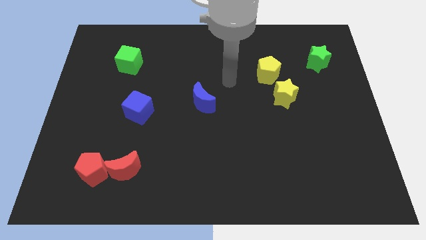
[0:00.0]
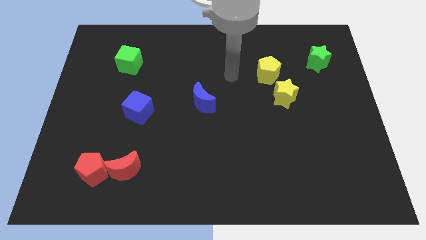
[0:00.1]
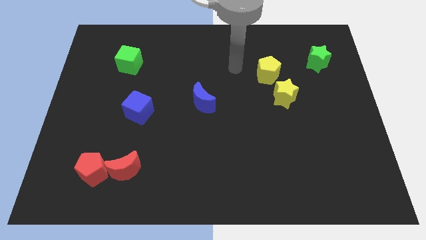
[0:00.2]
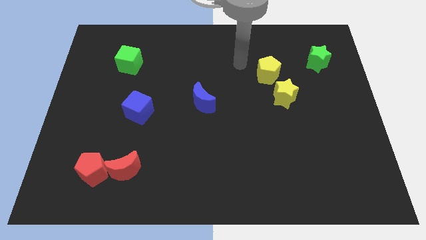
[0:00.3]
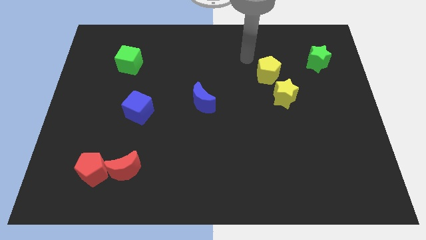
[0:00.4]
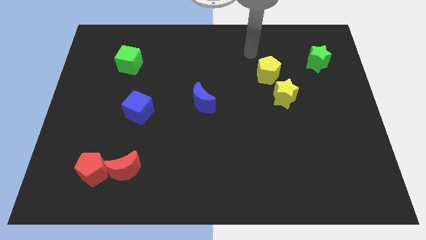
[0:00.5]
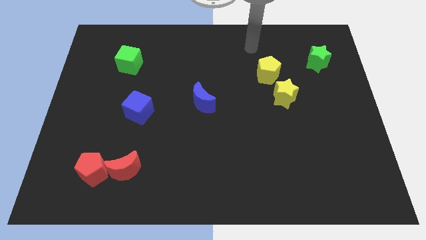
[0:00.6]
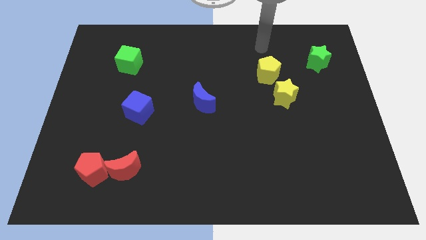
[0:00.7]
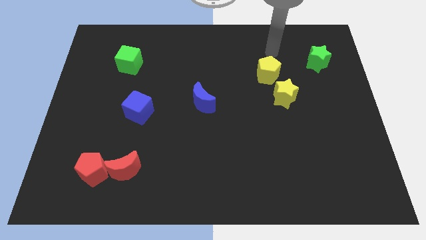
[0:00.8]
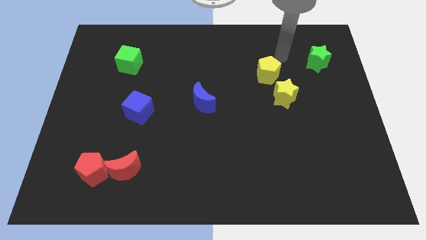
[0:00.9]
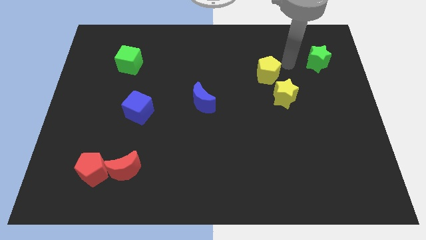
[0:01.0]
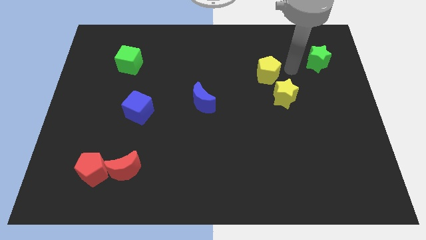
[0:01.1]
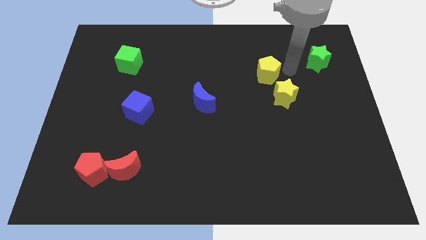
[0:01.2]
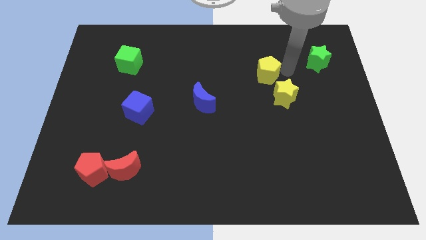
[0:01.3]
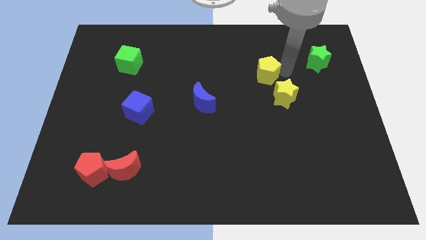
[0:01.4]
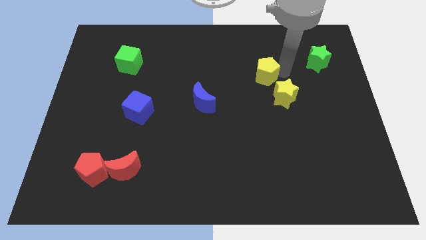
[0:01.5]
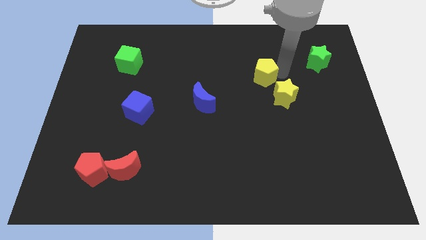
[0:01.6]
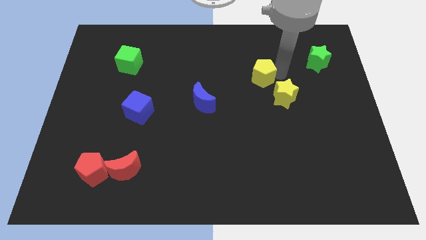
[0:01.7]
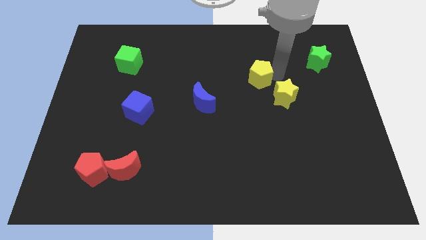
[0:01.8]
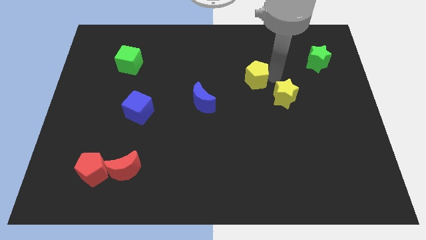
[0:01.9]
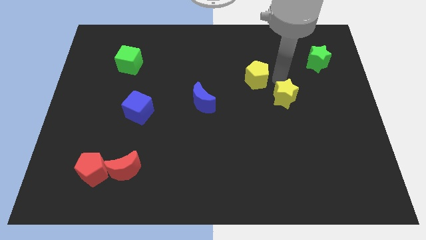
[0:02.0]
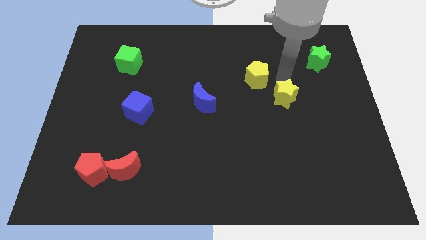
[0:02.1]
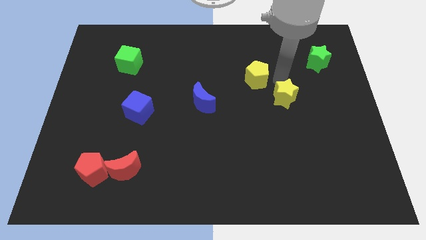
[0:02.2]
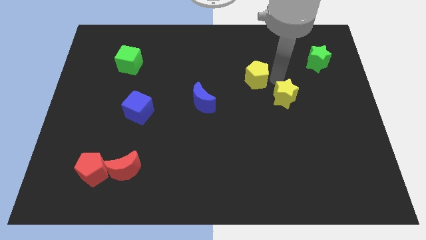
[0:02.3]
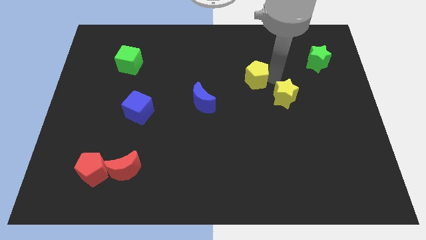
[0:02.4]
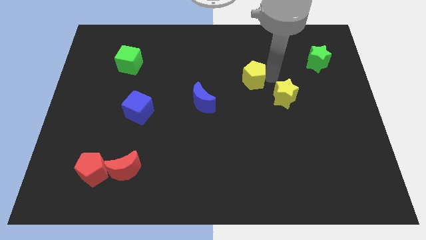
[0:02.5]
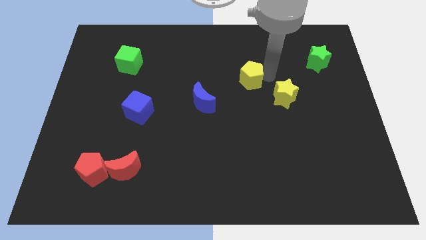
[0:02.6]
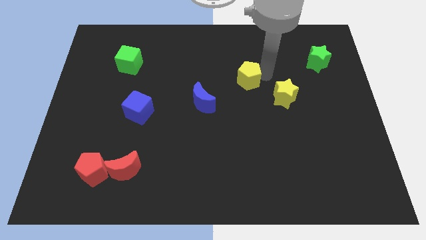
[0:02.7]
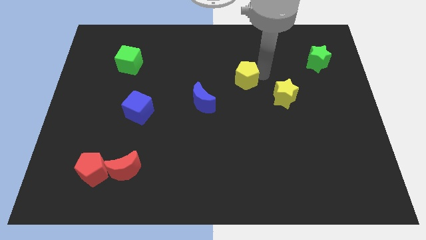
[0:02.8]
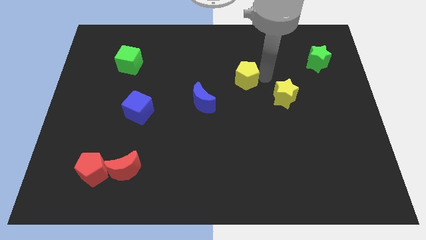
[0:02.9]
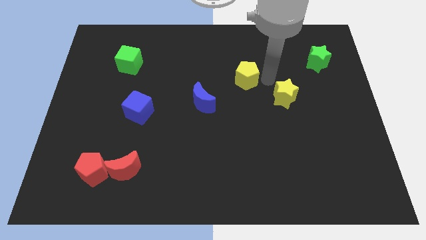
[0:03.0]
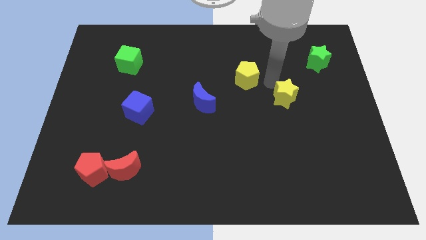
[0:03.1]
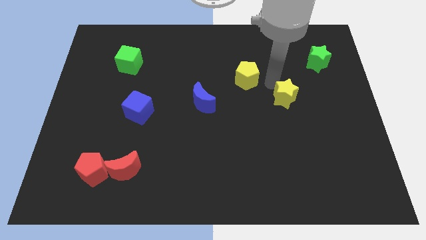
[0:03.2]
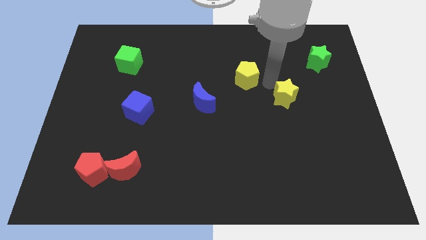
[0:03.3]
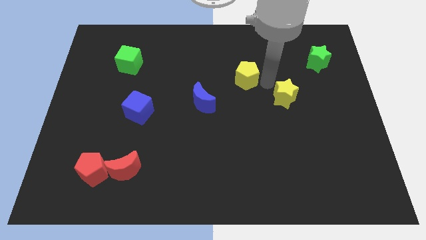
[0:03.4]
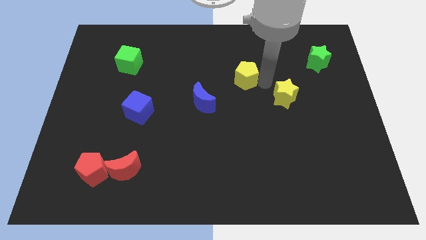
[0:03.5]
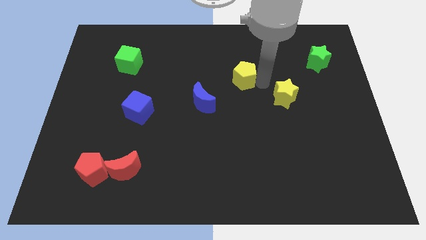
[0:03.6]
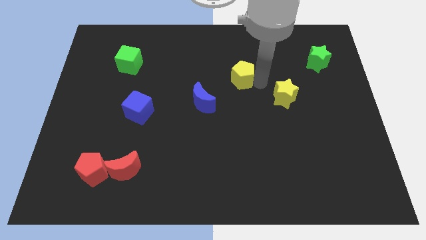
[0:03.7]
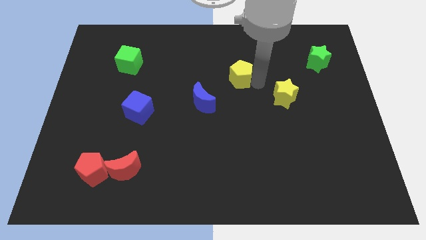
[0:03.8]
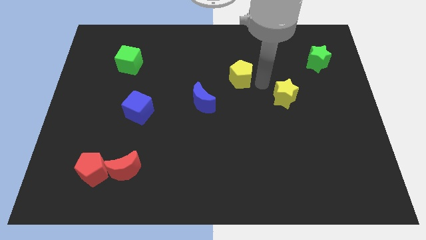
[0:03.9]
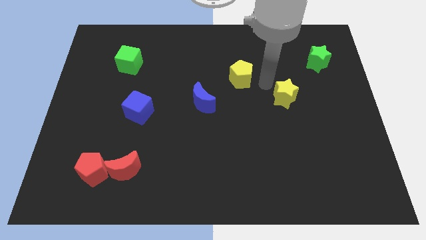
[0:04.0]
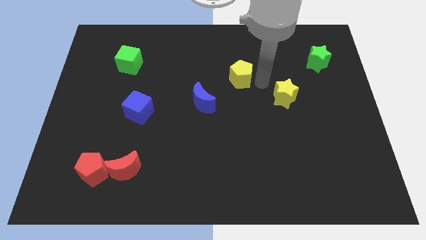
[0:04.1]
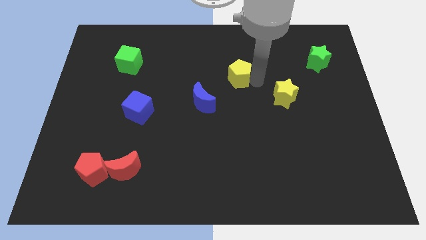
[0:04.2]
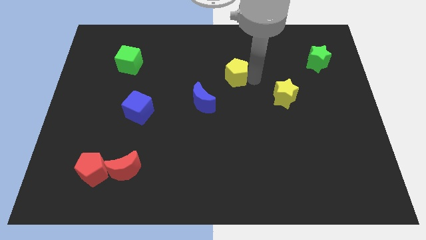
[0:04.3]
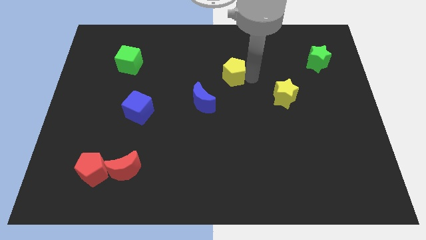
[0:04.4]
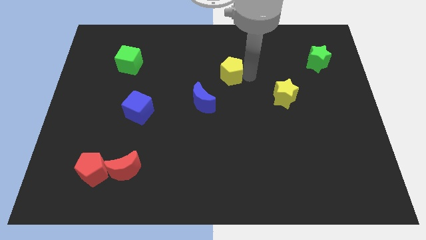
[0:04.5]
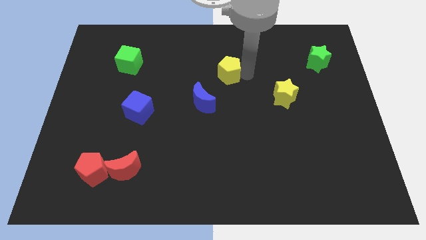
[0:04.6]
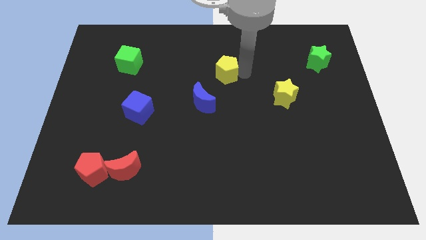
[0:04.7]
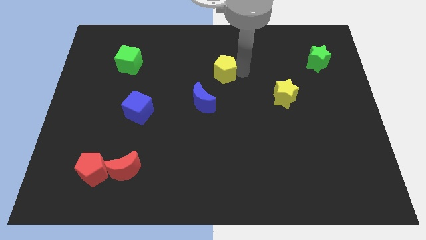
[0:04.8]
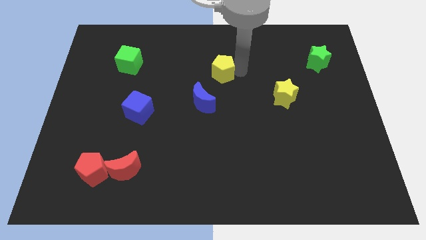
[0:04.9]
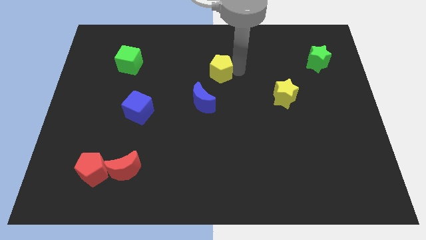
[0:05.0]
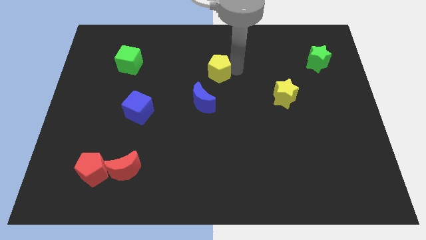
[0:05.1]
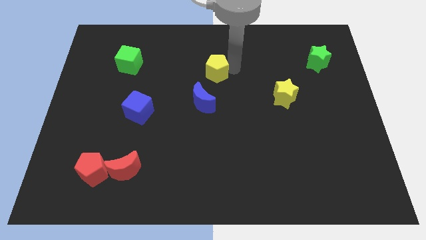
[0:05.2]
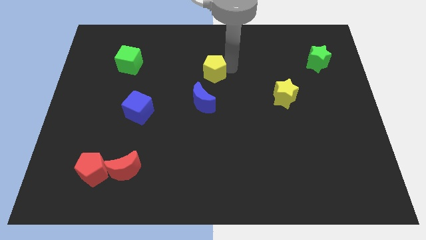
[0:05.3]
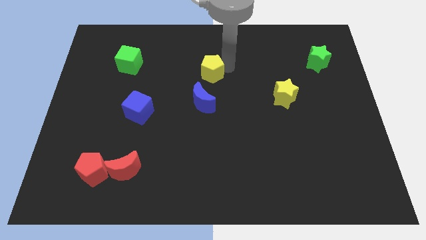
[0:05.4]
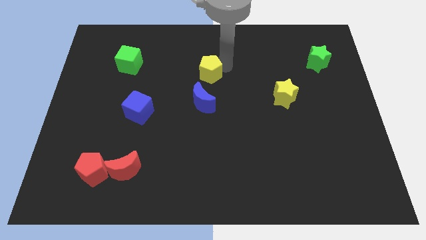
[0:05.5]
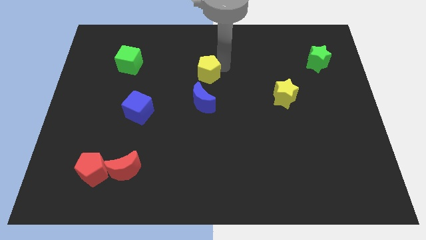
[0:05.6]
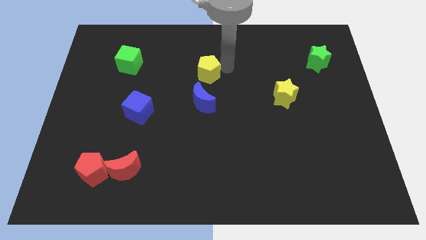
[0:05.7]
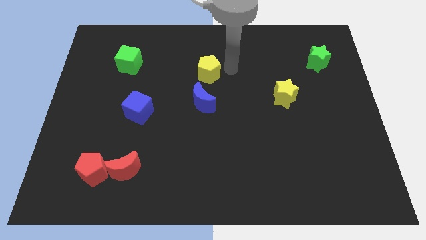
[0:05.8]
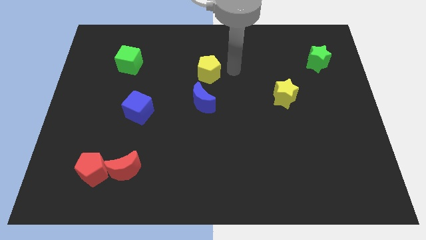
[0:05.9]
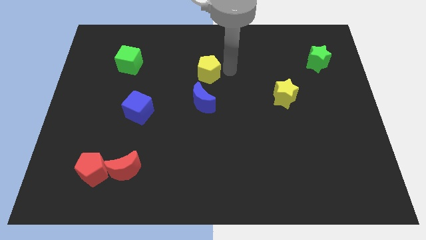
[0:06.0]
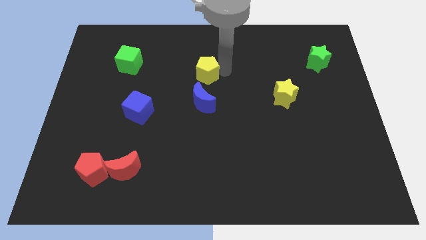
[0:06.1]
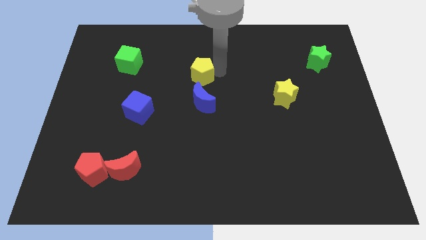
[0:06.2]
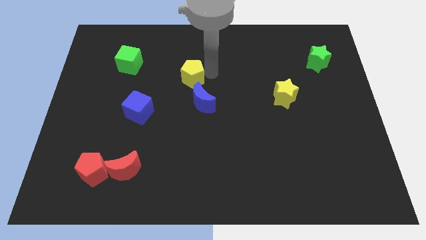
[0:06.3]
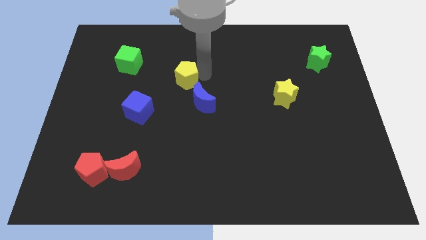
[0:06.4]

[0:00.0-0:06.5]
move the yellow pentagon to the left

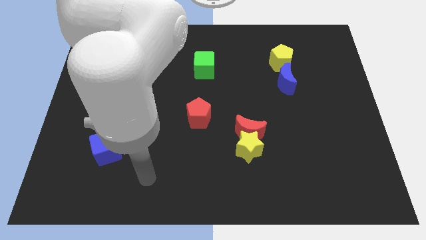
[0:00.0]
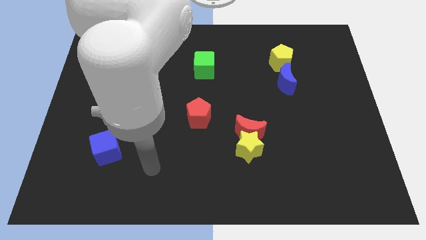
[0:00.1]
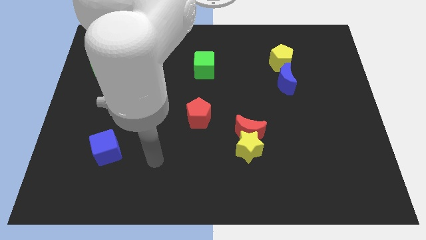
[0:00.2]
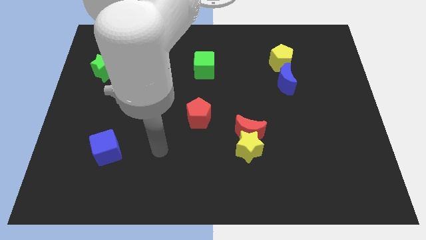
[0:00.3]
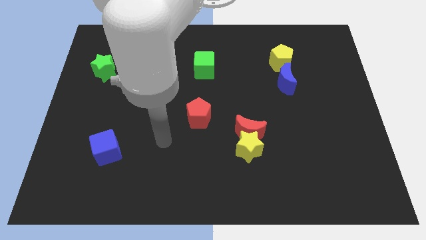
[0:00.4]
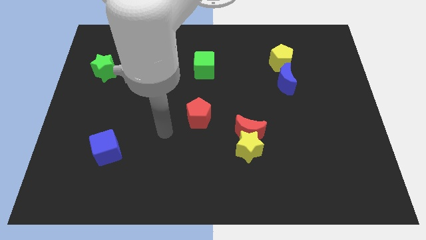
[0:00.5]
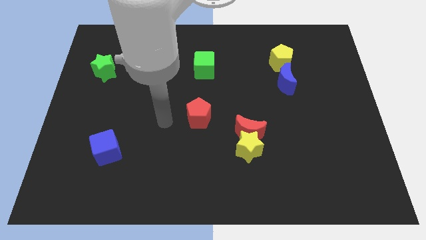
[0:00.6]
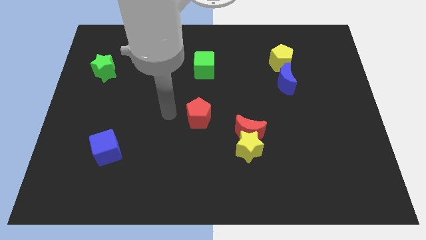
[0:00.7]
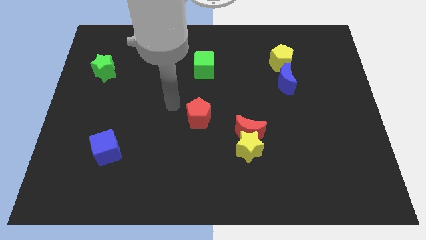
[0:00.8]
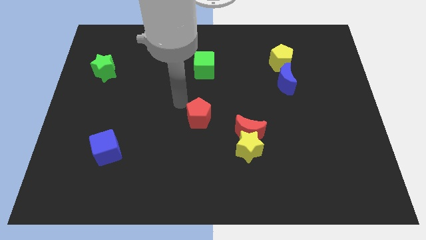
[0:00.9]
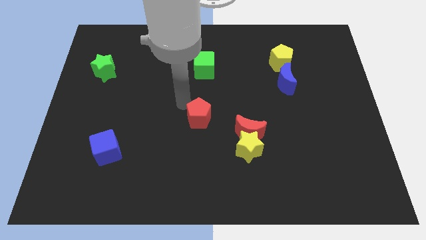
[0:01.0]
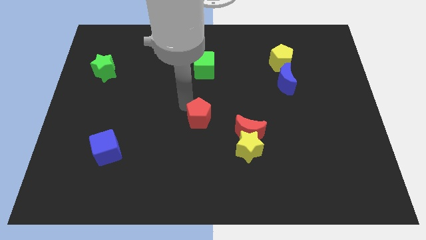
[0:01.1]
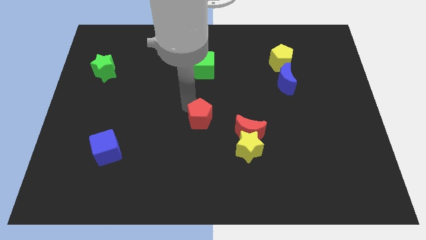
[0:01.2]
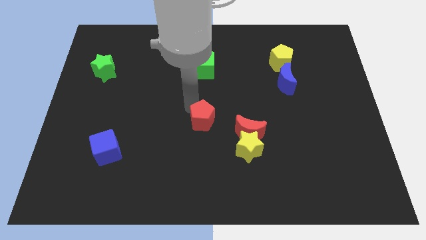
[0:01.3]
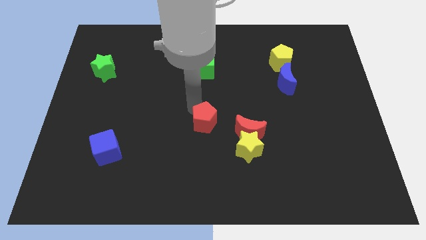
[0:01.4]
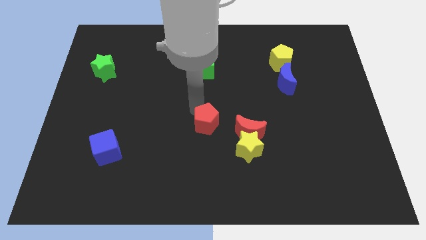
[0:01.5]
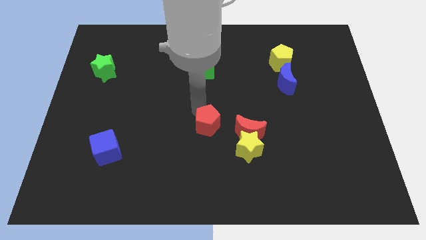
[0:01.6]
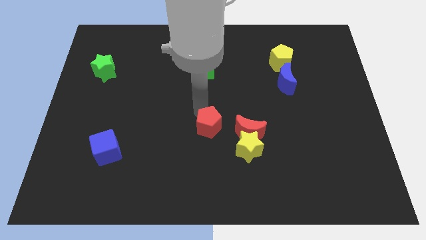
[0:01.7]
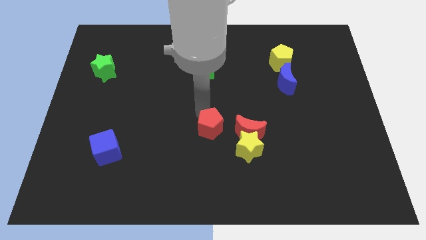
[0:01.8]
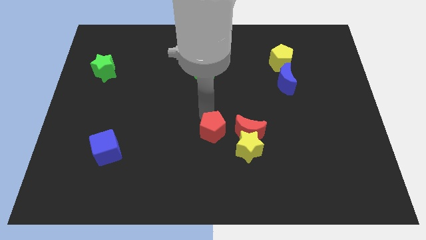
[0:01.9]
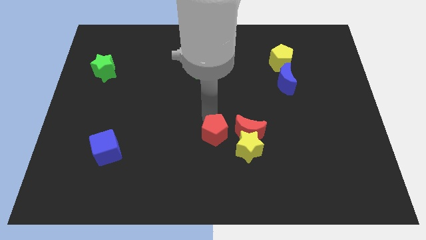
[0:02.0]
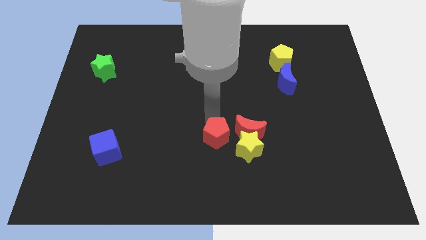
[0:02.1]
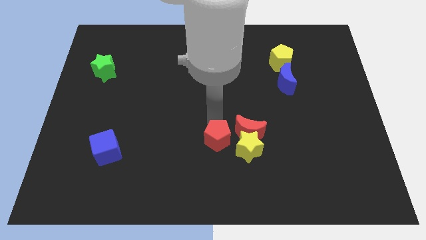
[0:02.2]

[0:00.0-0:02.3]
move the red pentagon downwards and to the right diagonally a bit
